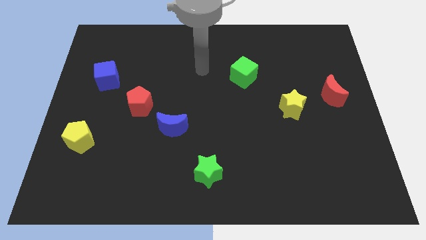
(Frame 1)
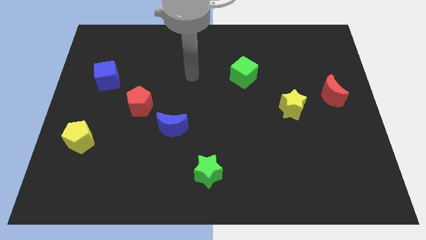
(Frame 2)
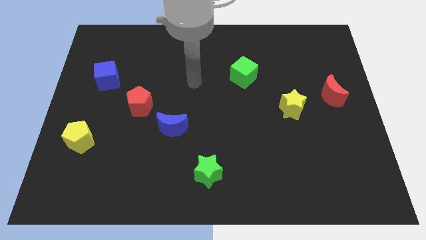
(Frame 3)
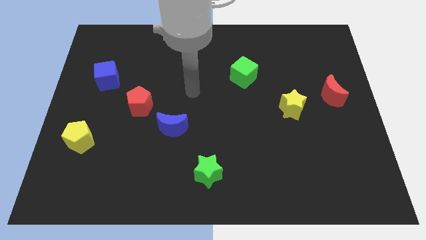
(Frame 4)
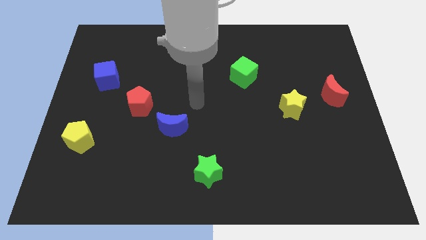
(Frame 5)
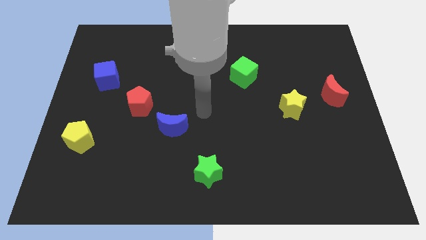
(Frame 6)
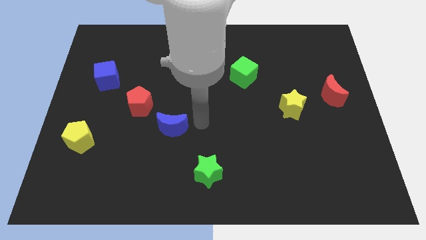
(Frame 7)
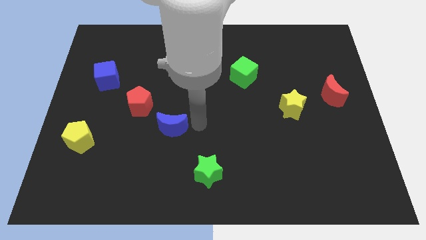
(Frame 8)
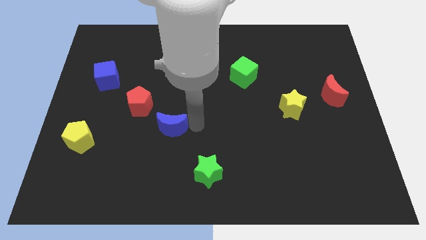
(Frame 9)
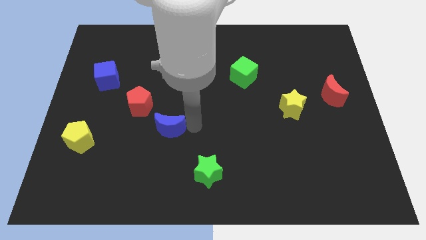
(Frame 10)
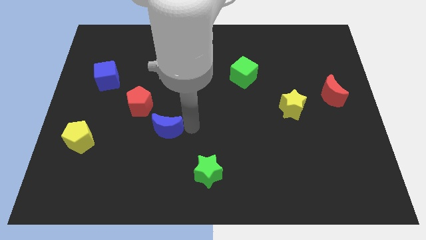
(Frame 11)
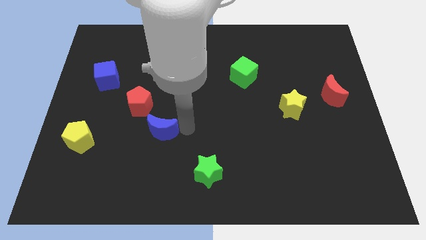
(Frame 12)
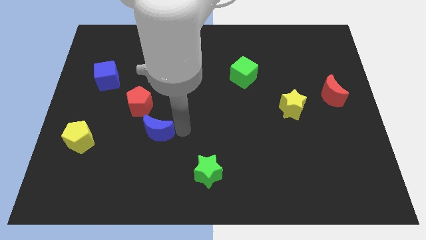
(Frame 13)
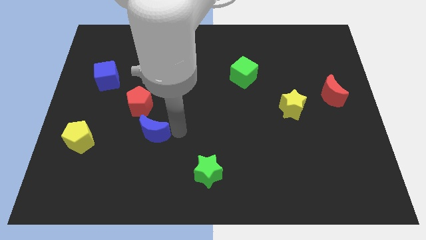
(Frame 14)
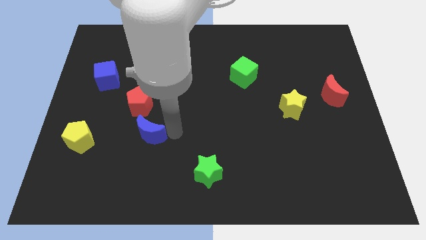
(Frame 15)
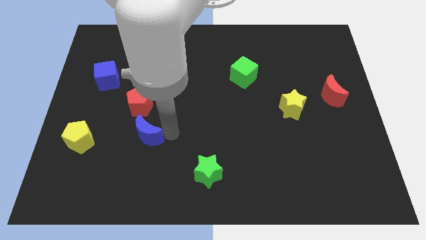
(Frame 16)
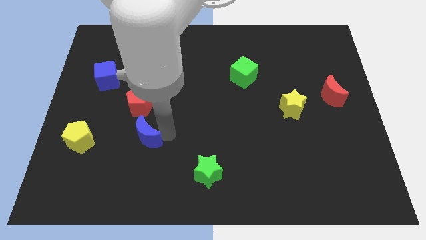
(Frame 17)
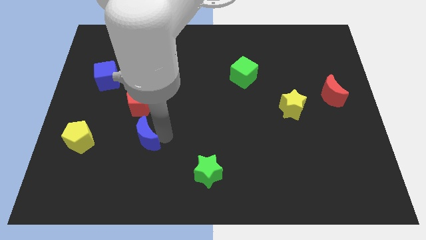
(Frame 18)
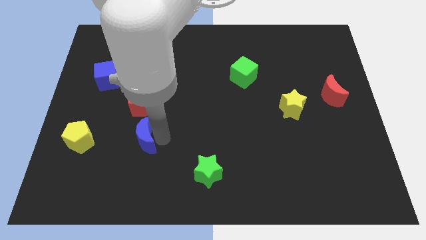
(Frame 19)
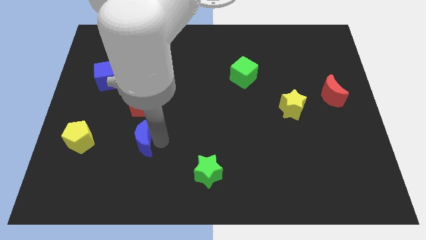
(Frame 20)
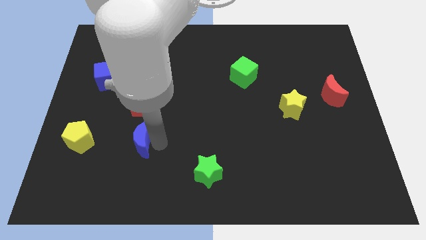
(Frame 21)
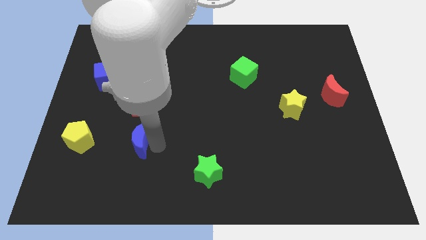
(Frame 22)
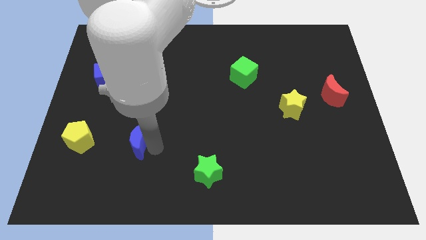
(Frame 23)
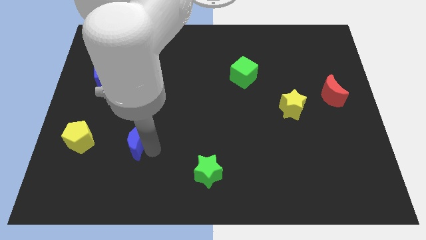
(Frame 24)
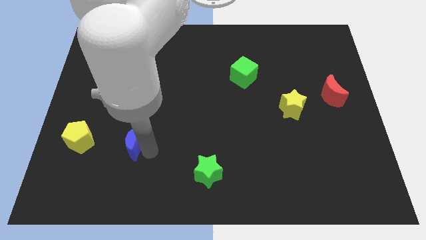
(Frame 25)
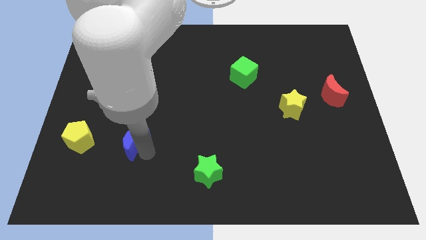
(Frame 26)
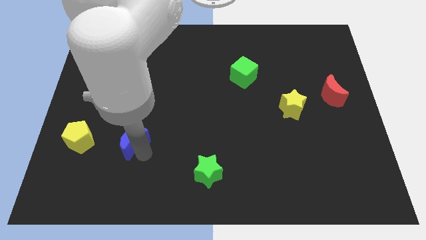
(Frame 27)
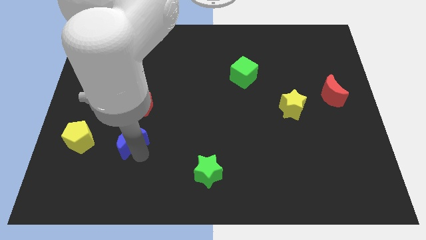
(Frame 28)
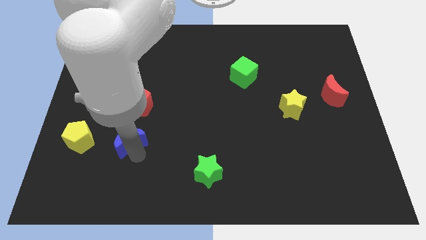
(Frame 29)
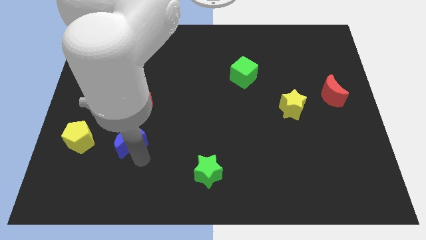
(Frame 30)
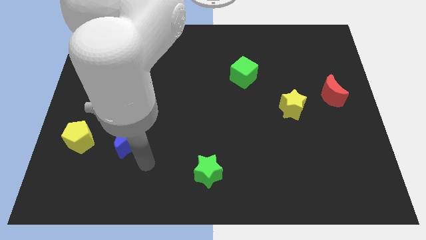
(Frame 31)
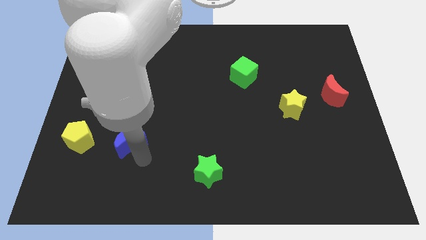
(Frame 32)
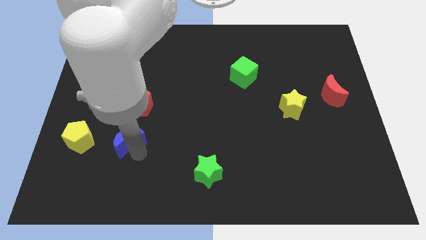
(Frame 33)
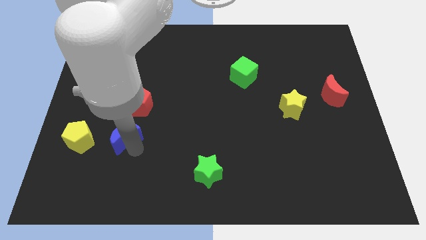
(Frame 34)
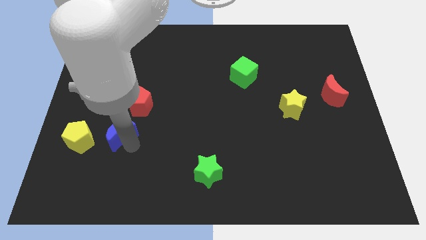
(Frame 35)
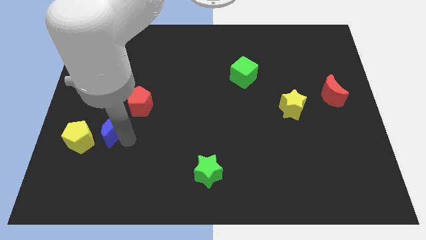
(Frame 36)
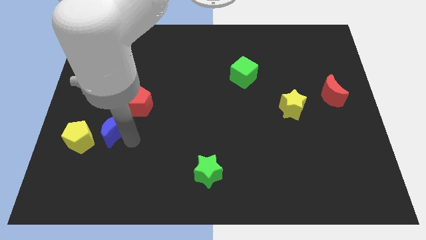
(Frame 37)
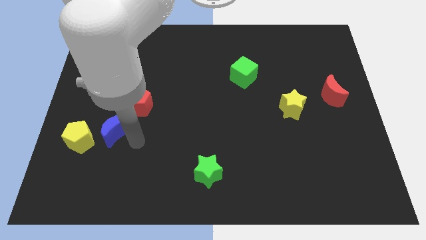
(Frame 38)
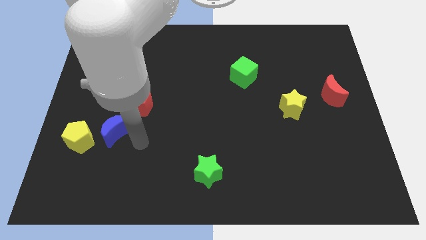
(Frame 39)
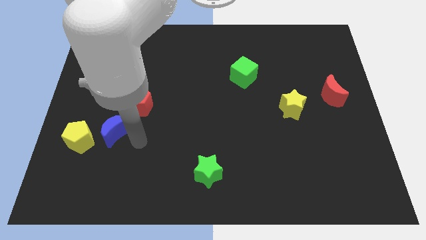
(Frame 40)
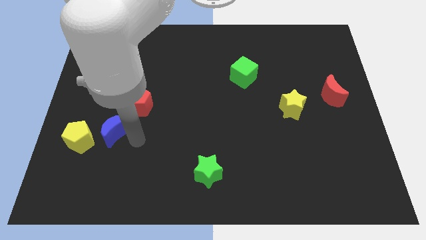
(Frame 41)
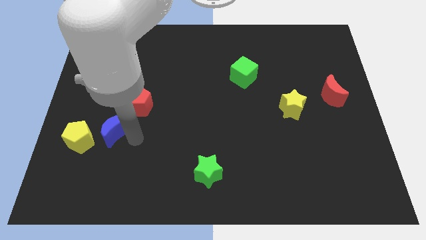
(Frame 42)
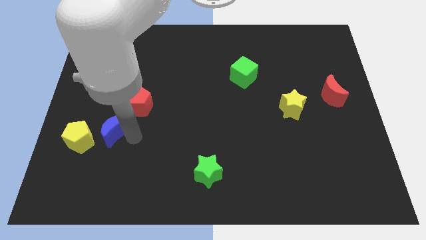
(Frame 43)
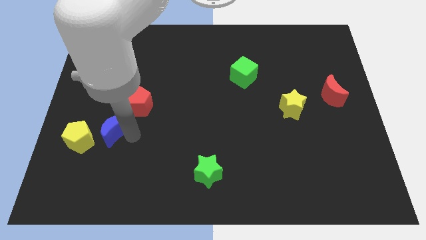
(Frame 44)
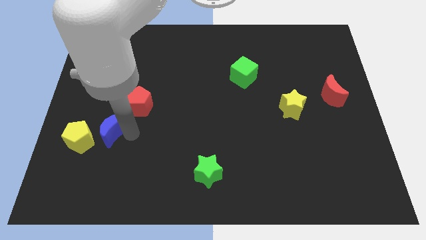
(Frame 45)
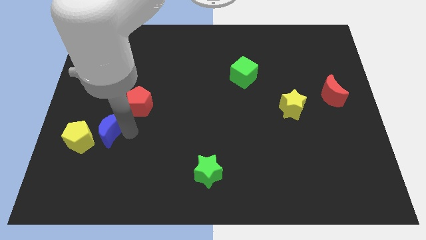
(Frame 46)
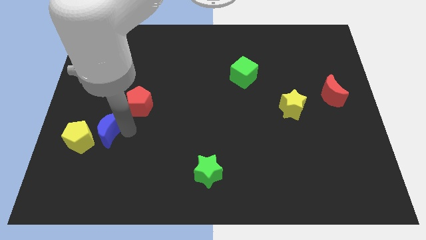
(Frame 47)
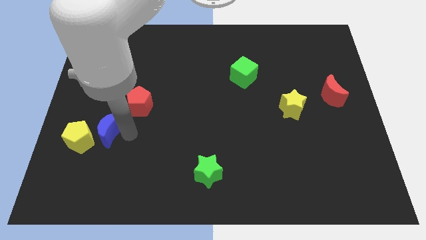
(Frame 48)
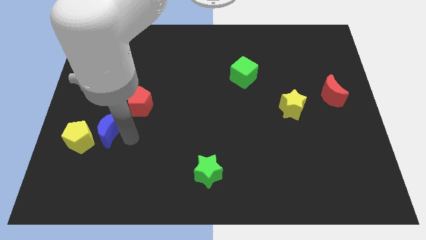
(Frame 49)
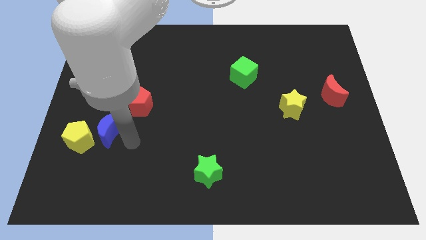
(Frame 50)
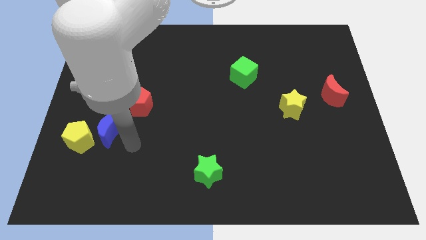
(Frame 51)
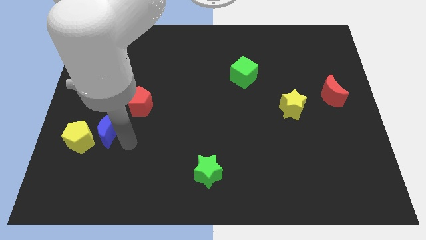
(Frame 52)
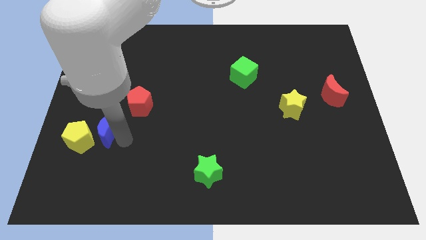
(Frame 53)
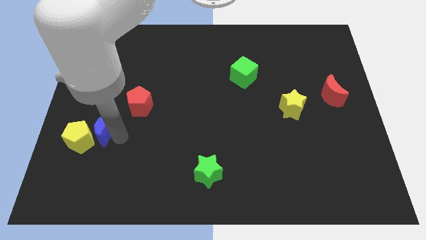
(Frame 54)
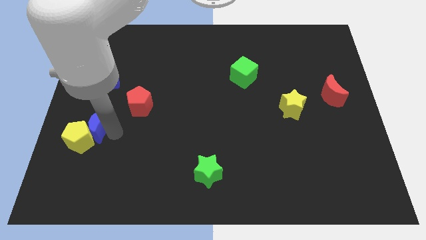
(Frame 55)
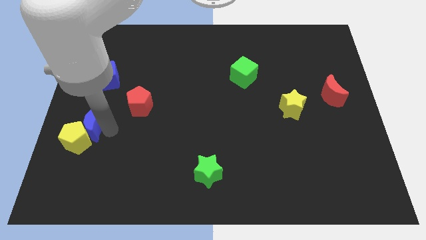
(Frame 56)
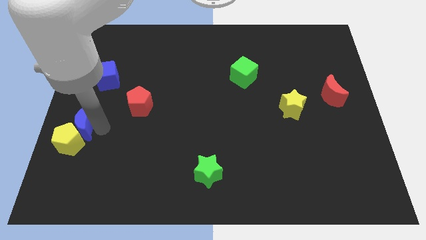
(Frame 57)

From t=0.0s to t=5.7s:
put the blue moon to the center left

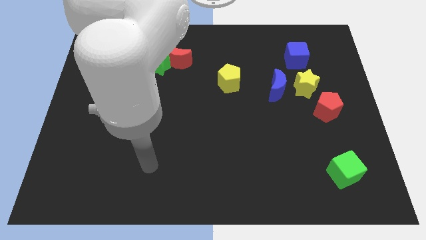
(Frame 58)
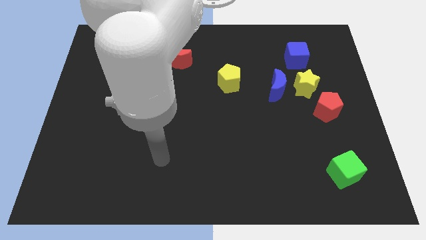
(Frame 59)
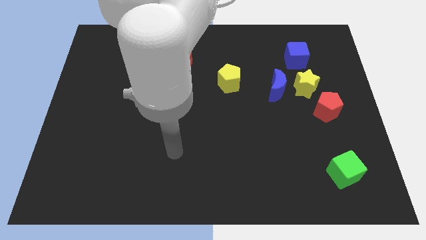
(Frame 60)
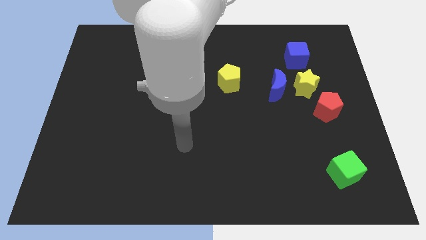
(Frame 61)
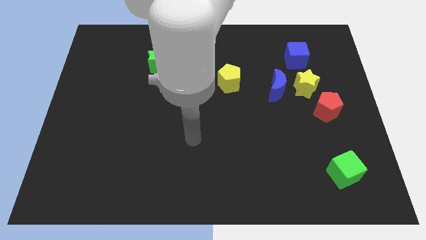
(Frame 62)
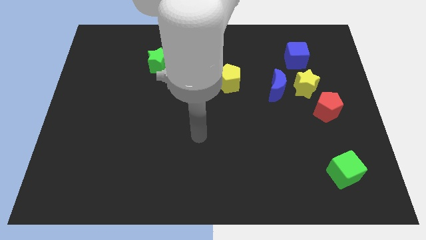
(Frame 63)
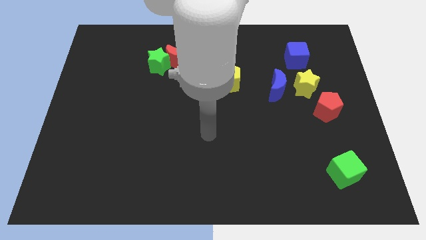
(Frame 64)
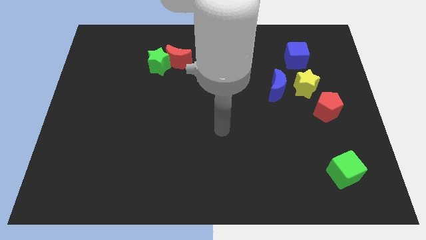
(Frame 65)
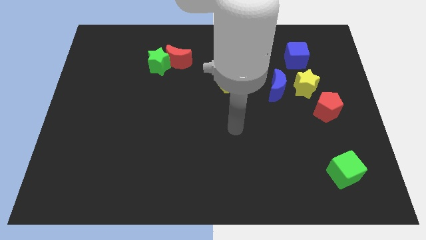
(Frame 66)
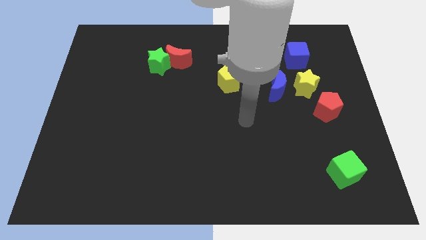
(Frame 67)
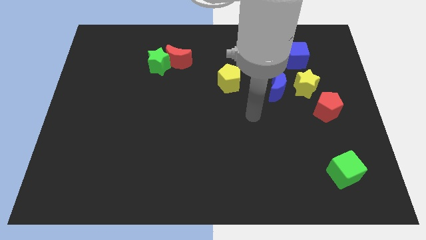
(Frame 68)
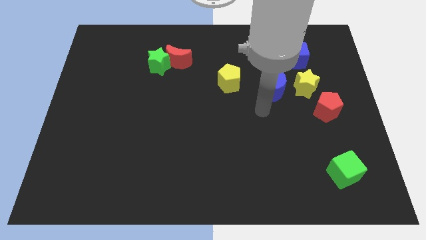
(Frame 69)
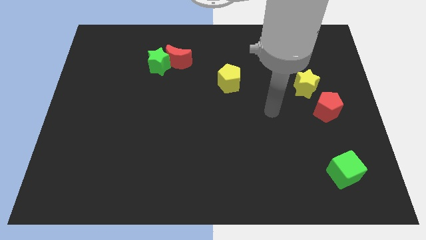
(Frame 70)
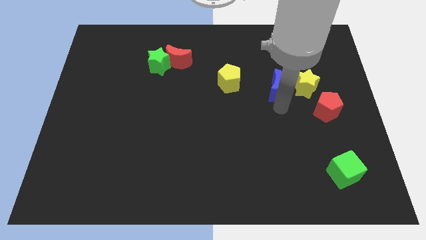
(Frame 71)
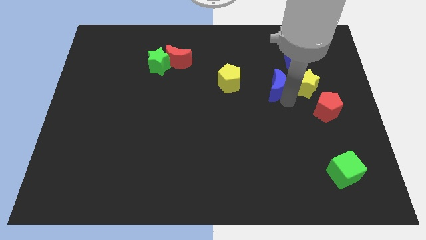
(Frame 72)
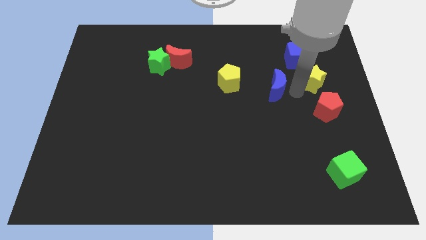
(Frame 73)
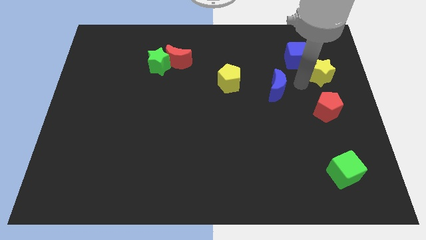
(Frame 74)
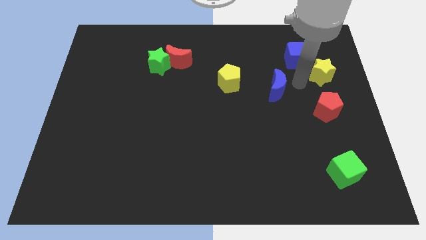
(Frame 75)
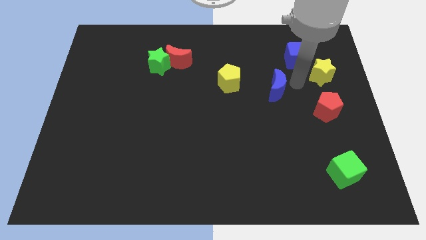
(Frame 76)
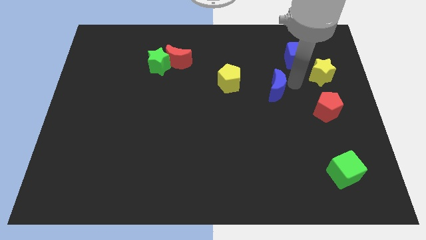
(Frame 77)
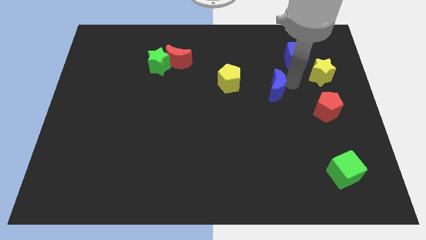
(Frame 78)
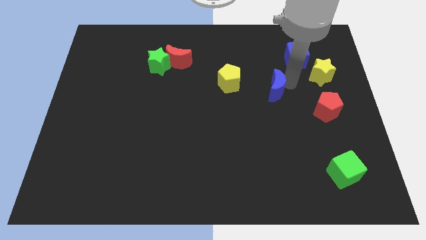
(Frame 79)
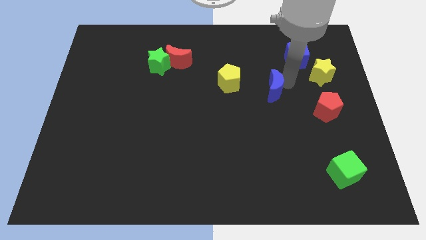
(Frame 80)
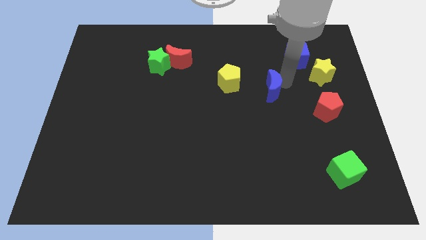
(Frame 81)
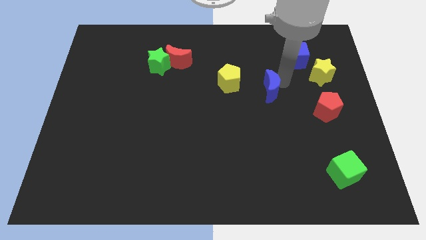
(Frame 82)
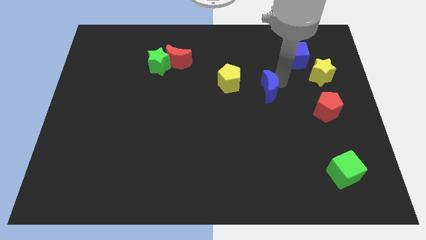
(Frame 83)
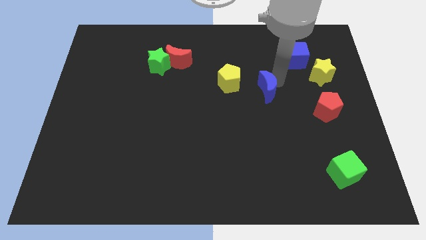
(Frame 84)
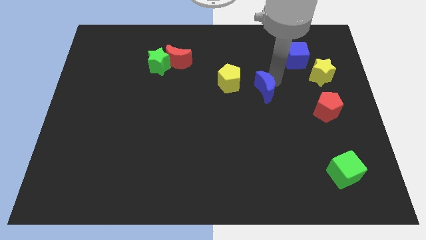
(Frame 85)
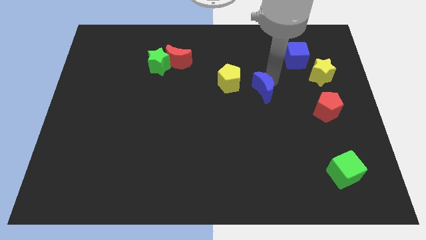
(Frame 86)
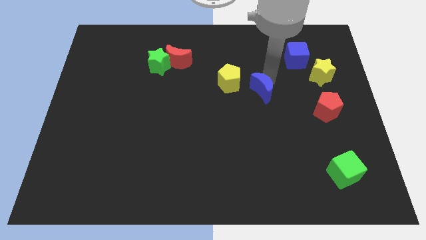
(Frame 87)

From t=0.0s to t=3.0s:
push the blue moon to the center
